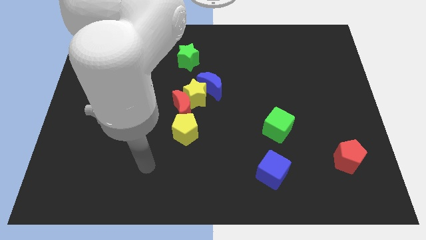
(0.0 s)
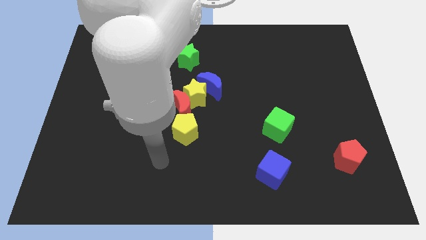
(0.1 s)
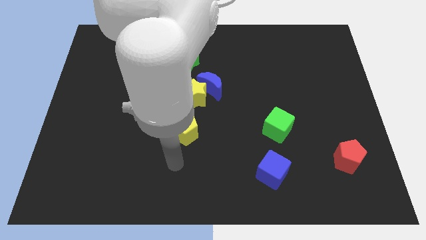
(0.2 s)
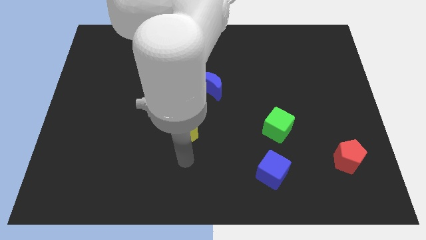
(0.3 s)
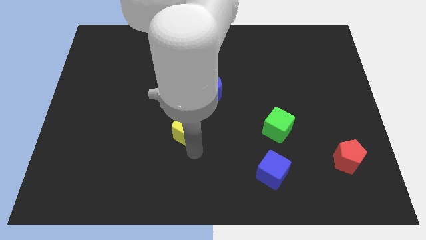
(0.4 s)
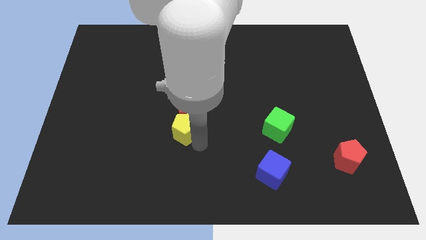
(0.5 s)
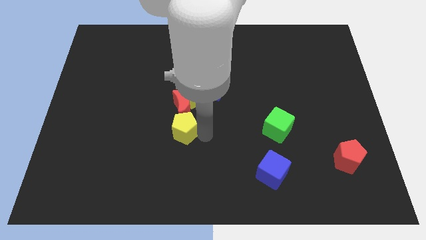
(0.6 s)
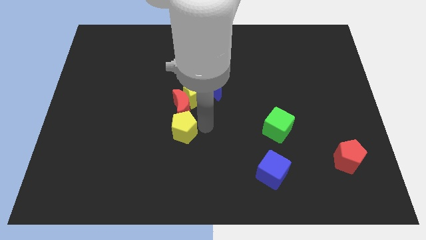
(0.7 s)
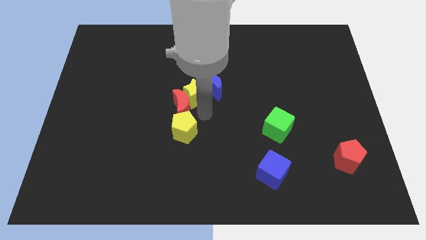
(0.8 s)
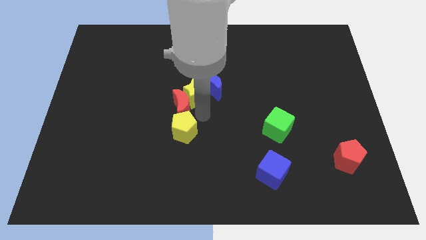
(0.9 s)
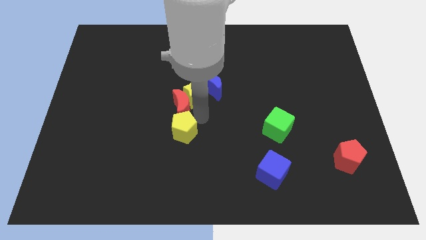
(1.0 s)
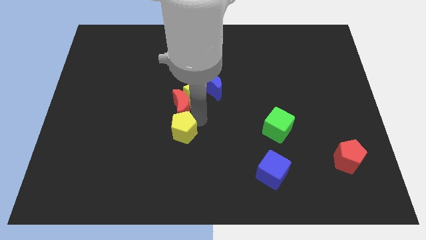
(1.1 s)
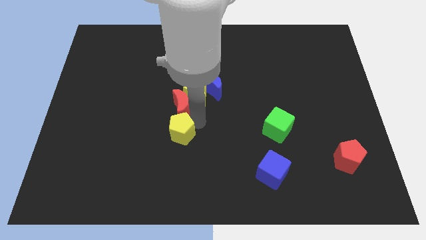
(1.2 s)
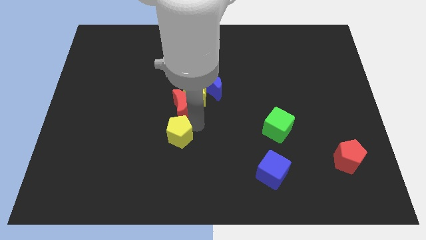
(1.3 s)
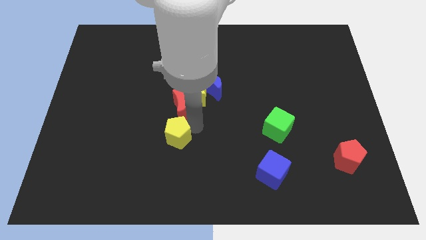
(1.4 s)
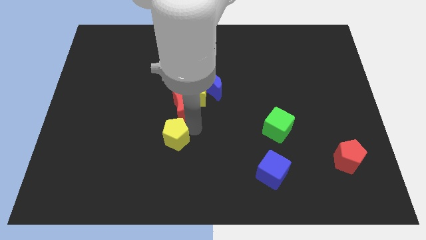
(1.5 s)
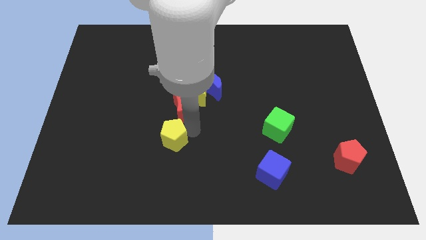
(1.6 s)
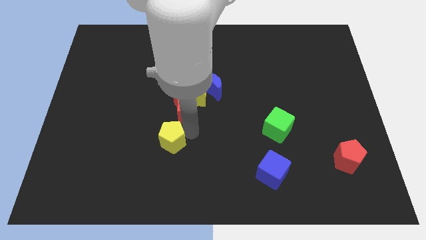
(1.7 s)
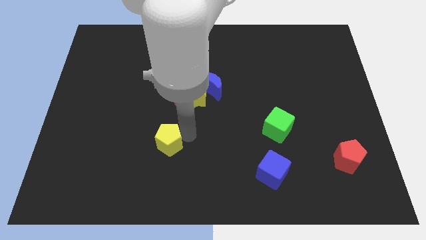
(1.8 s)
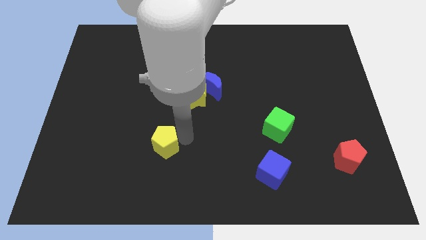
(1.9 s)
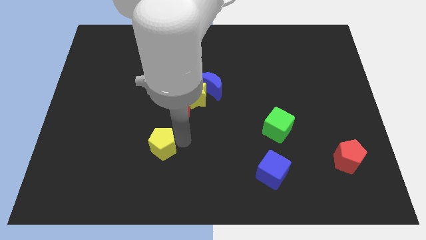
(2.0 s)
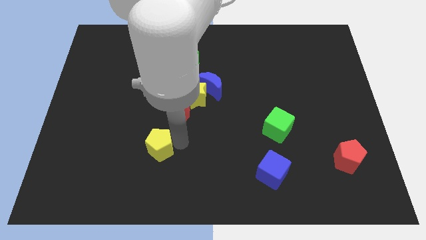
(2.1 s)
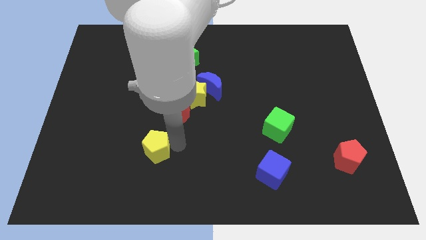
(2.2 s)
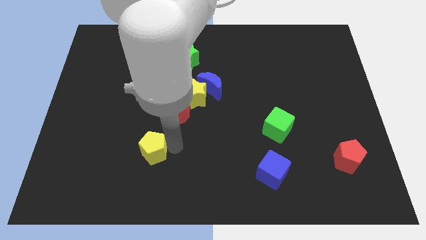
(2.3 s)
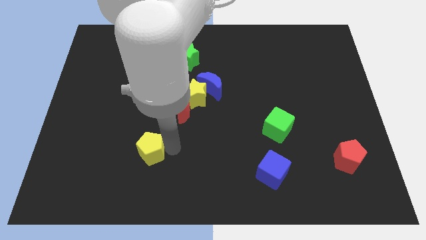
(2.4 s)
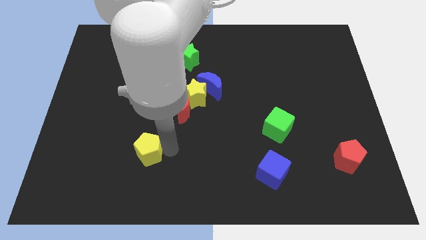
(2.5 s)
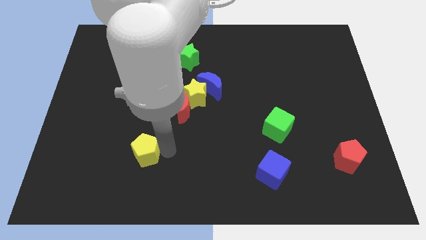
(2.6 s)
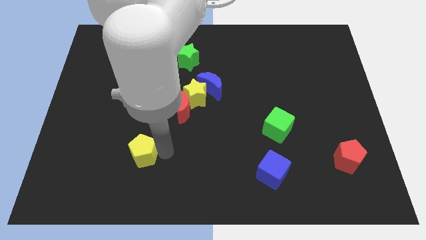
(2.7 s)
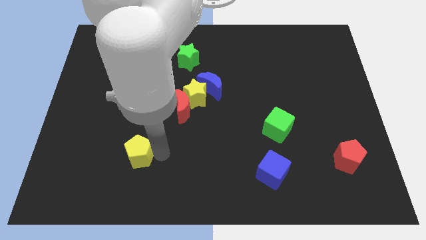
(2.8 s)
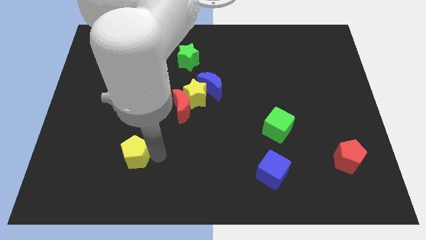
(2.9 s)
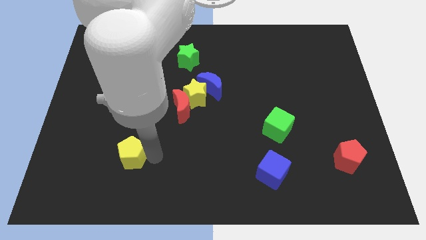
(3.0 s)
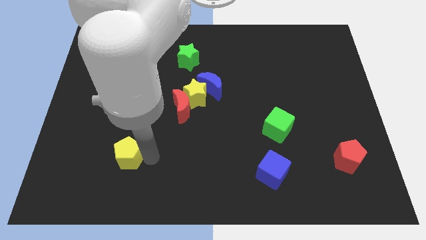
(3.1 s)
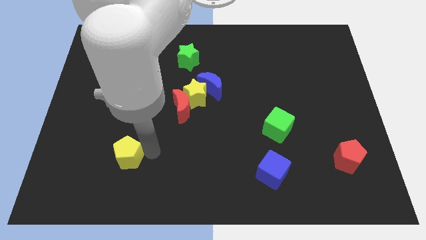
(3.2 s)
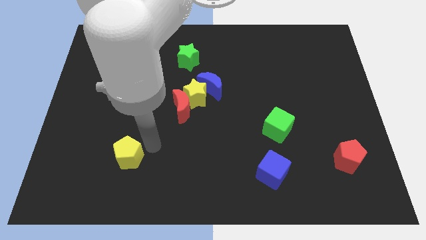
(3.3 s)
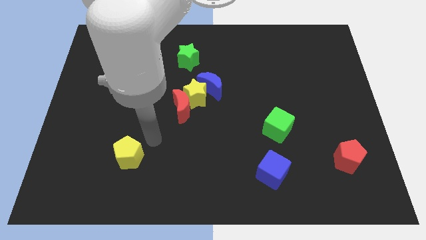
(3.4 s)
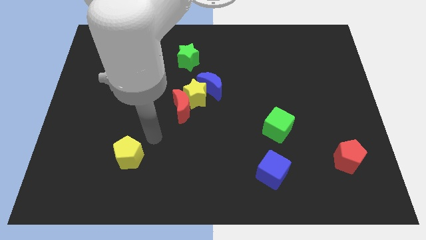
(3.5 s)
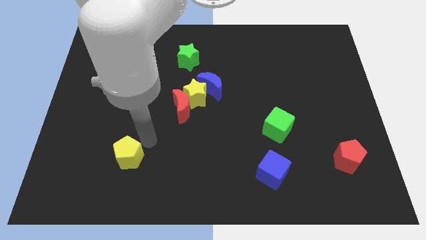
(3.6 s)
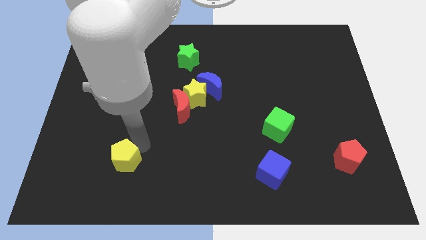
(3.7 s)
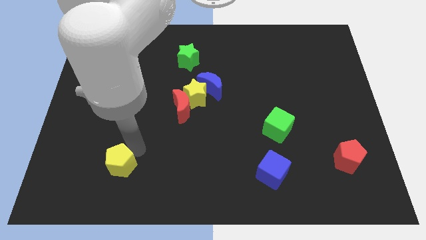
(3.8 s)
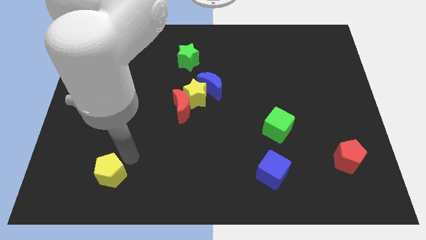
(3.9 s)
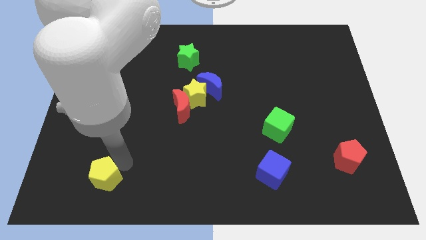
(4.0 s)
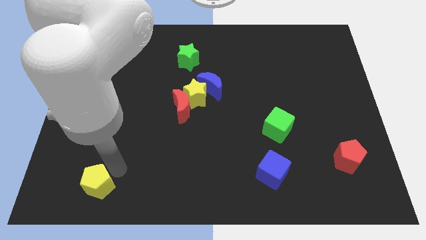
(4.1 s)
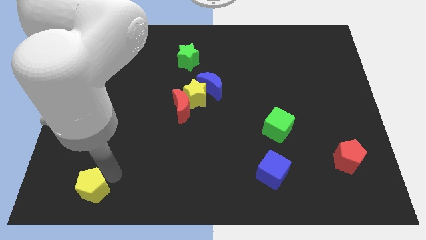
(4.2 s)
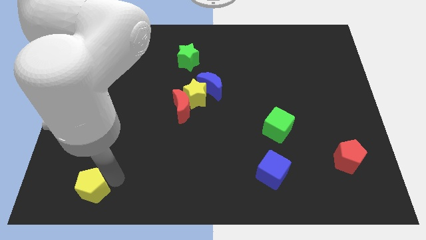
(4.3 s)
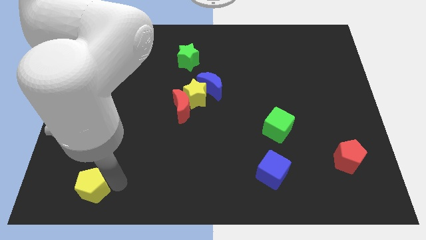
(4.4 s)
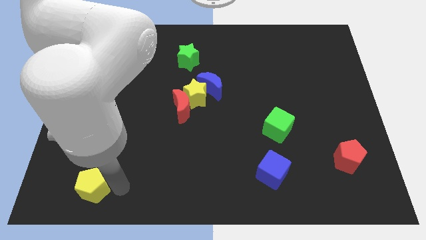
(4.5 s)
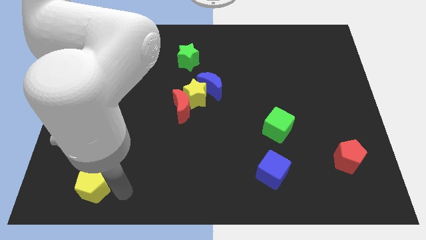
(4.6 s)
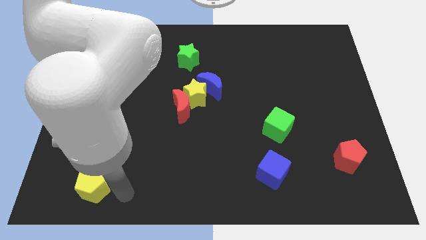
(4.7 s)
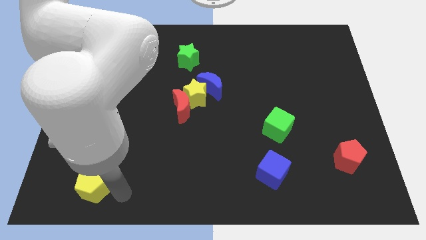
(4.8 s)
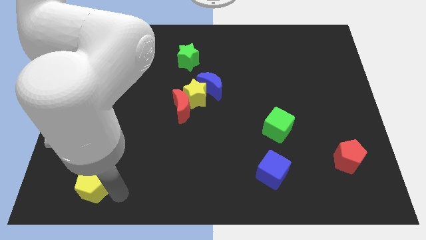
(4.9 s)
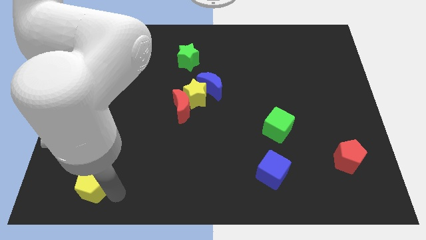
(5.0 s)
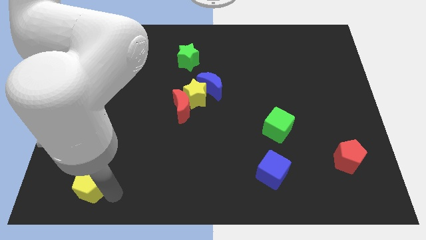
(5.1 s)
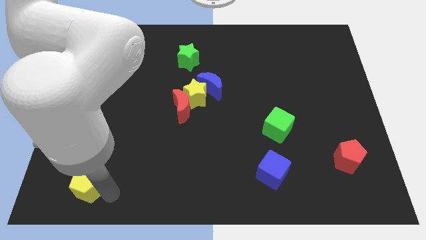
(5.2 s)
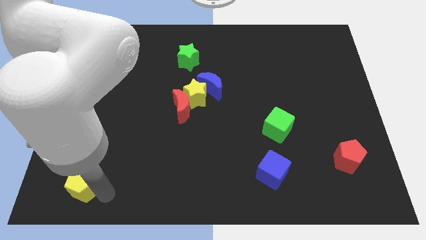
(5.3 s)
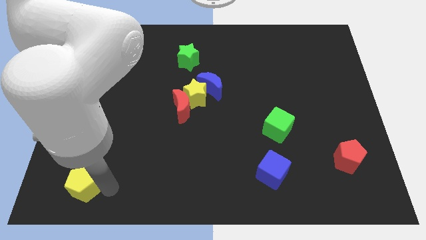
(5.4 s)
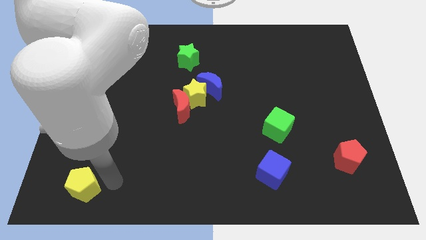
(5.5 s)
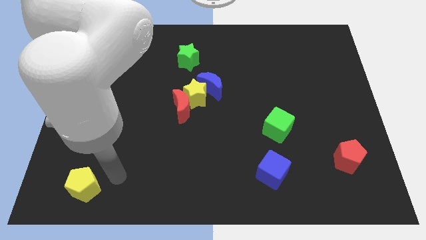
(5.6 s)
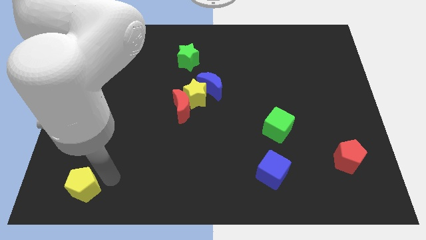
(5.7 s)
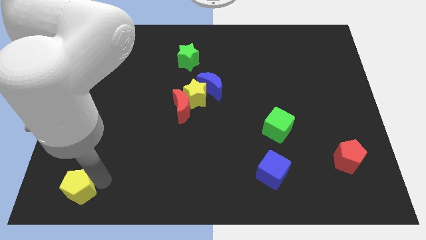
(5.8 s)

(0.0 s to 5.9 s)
move the yellow pentagon to the bottom left of the board
